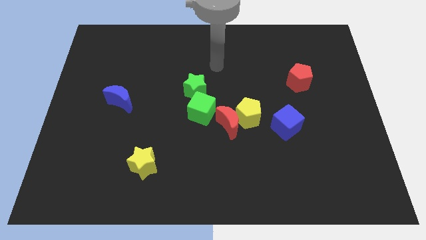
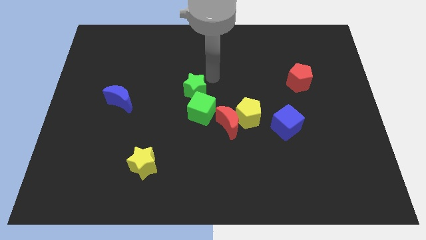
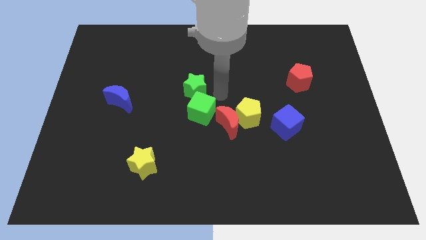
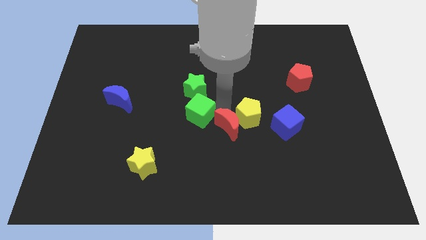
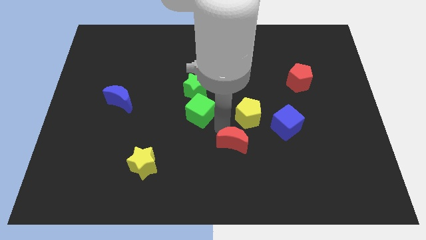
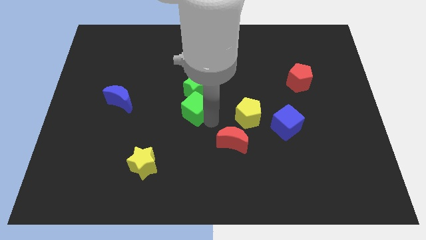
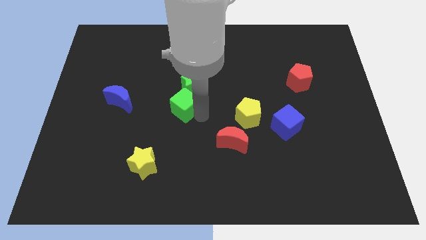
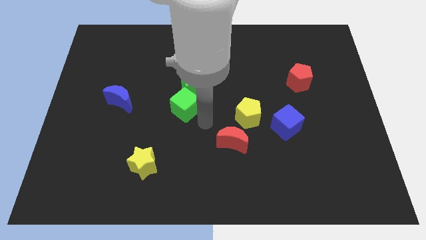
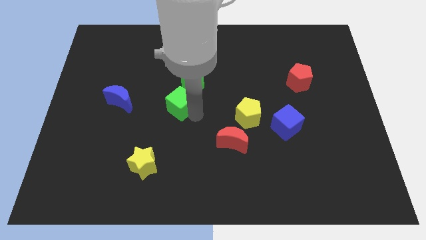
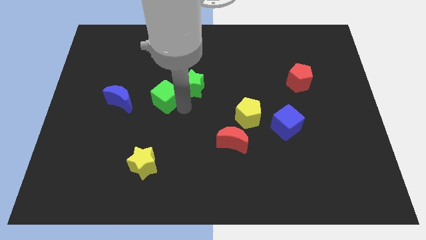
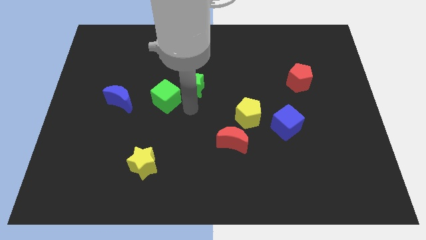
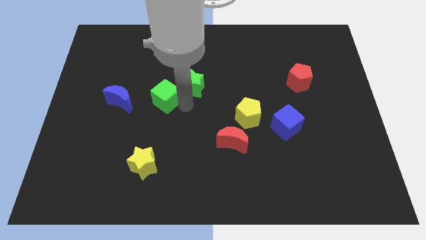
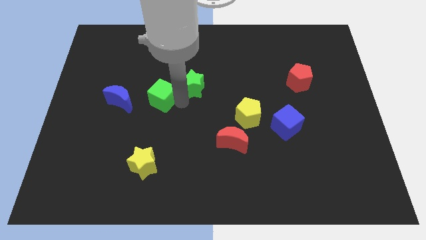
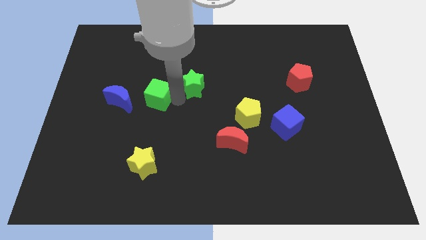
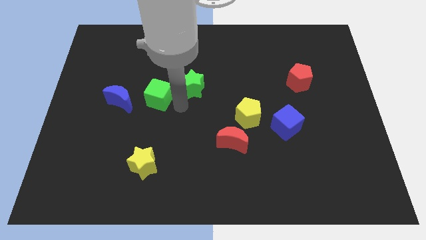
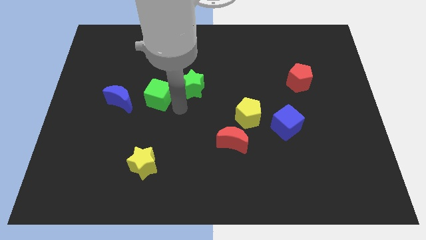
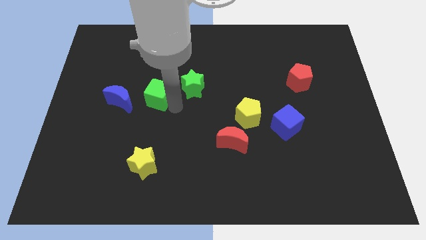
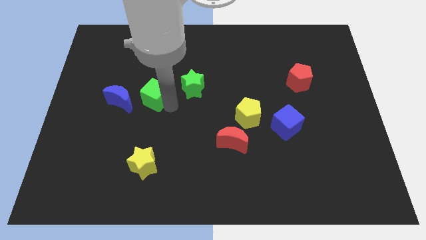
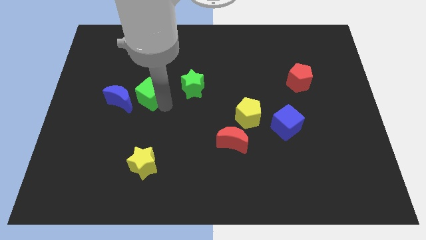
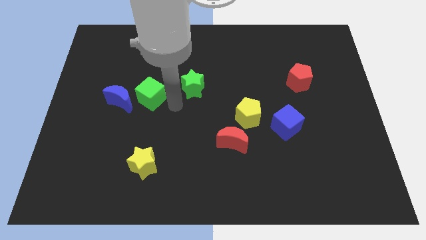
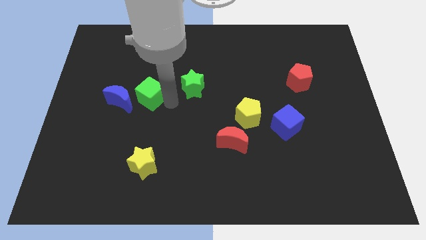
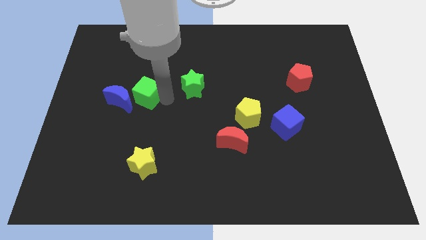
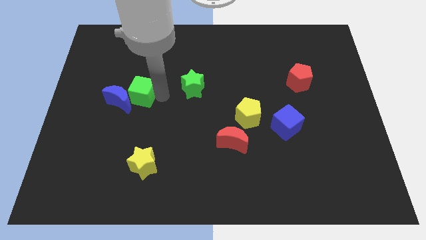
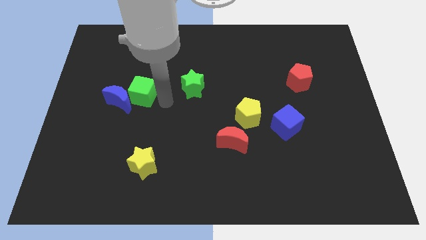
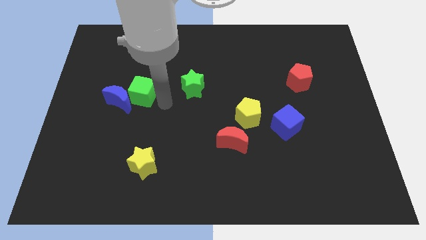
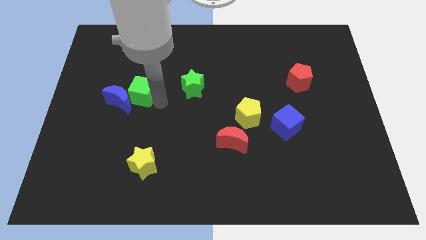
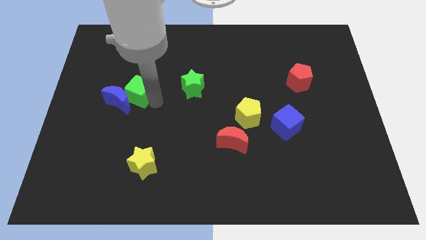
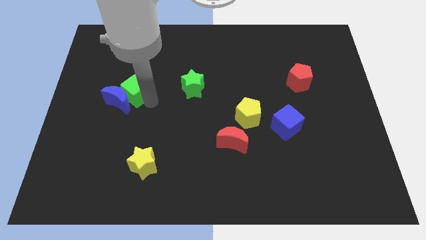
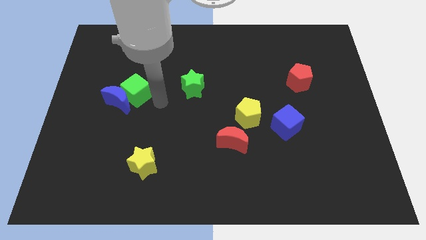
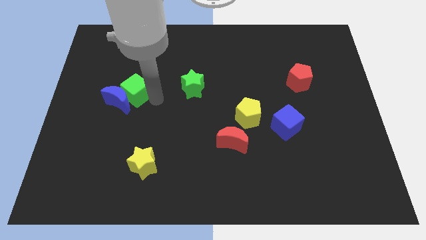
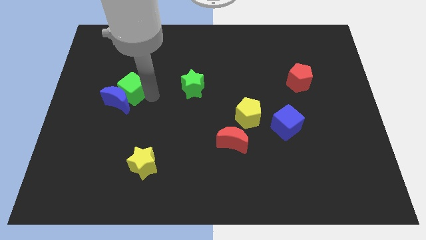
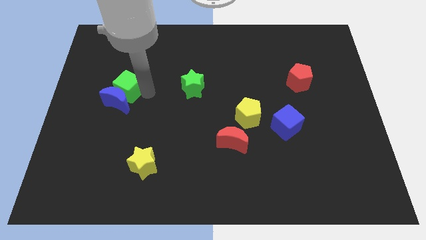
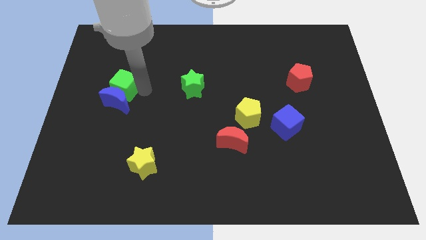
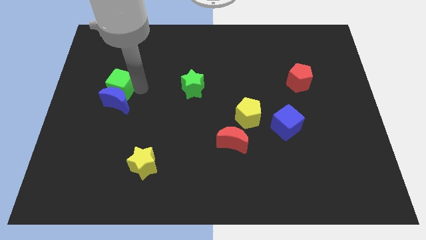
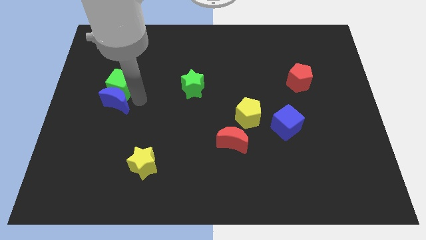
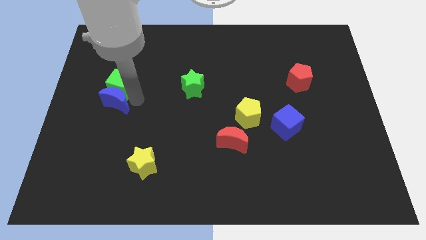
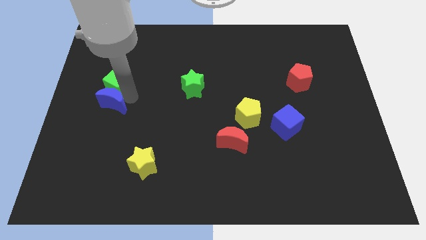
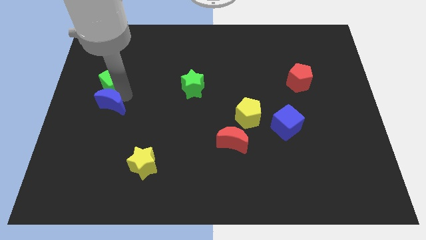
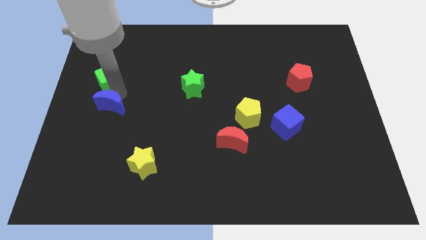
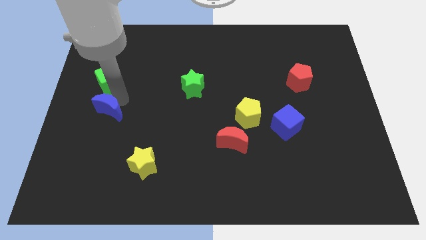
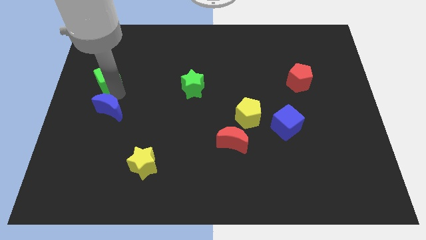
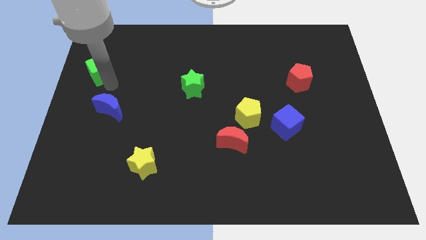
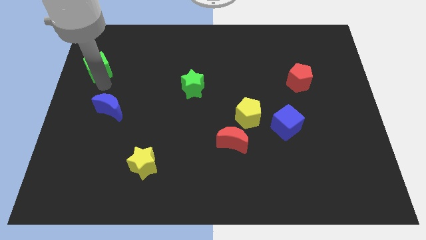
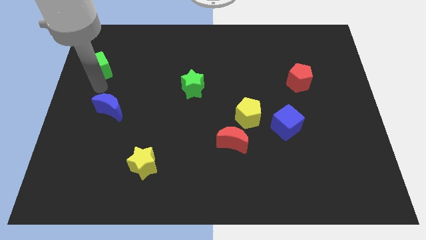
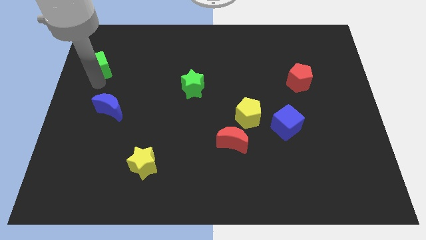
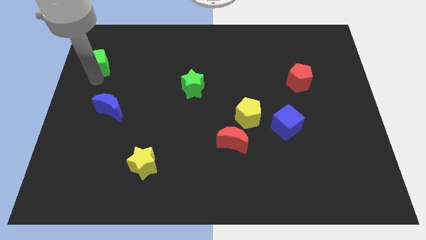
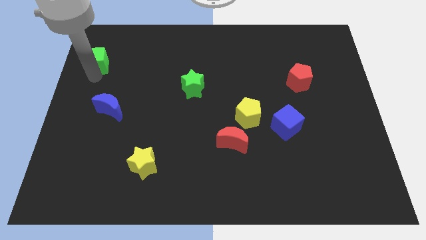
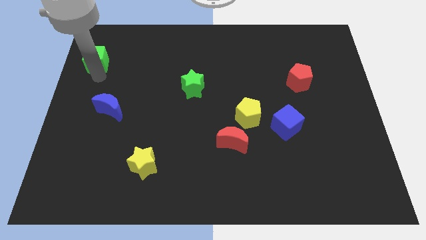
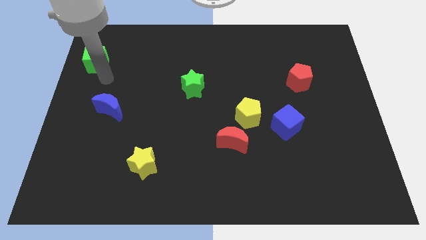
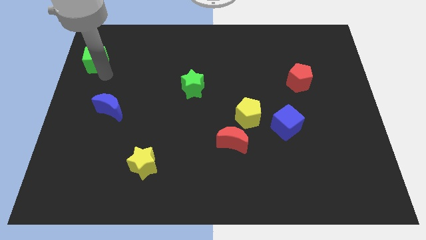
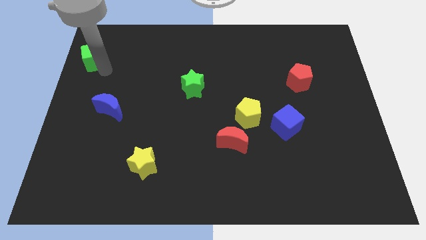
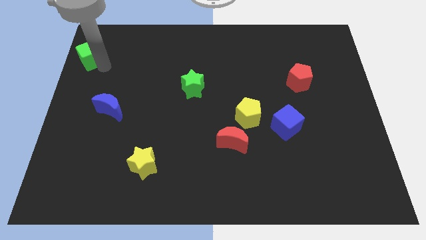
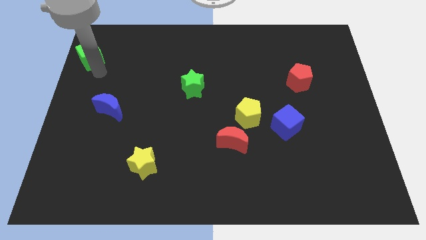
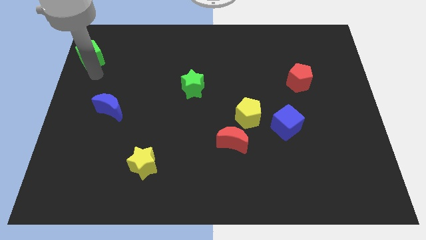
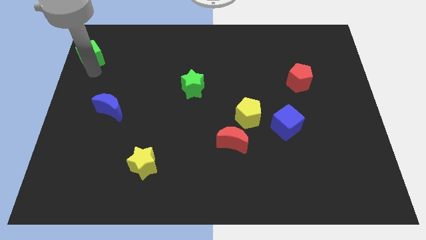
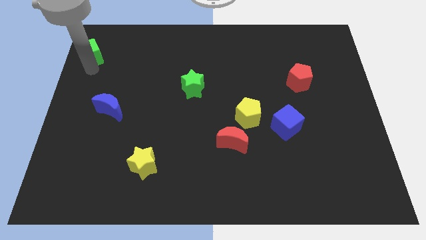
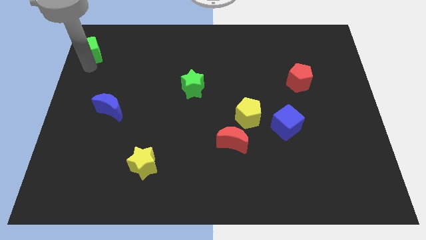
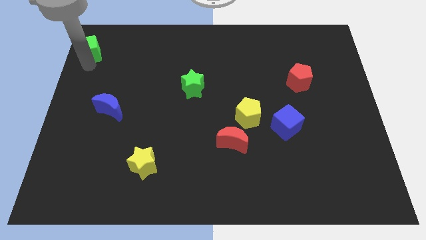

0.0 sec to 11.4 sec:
move the green cube to the top left

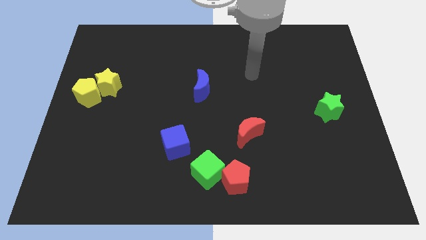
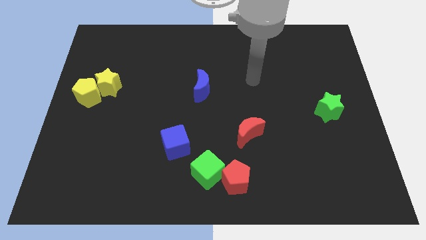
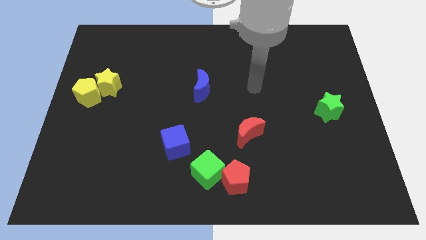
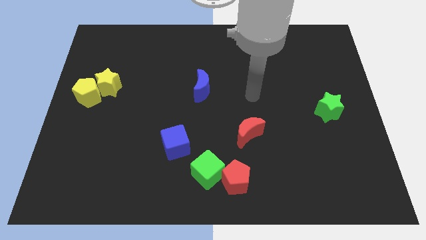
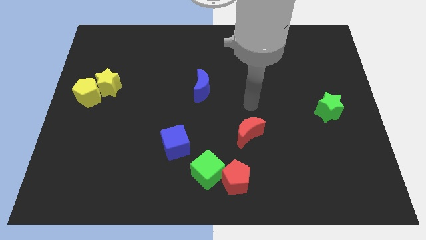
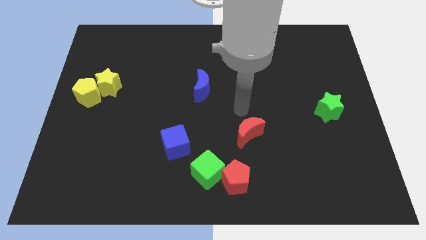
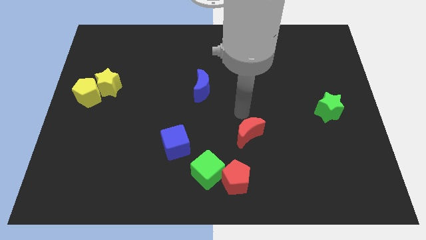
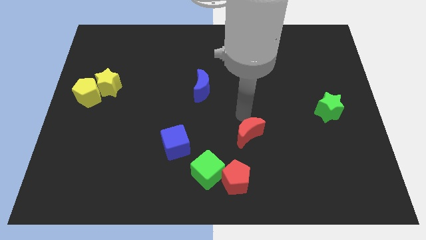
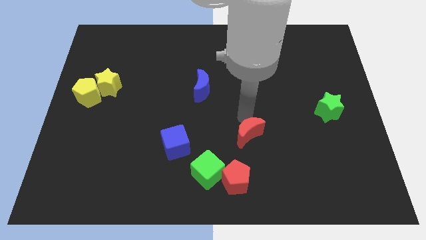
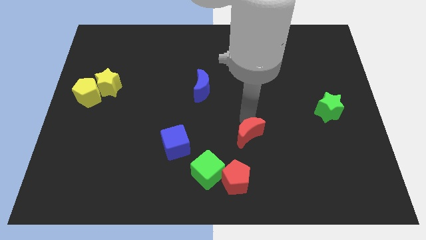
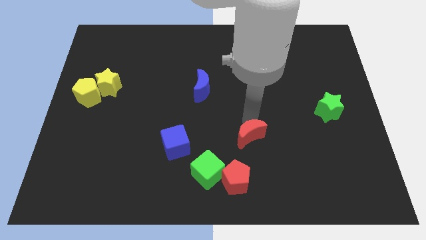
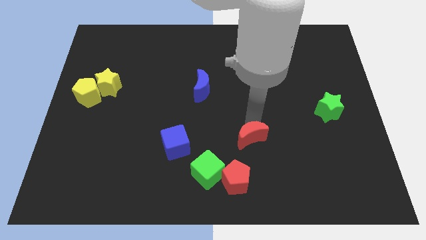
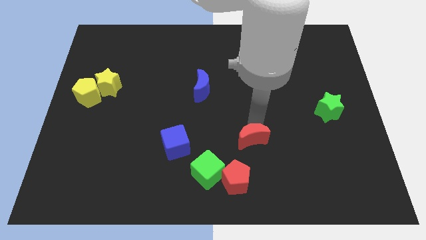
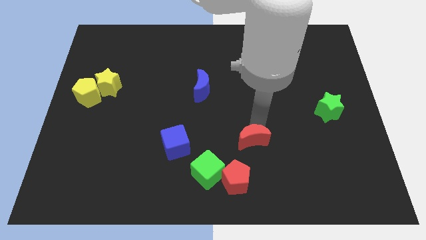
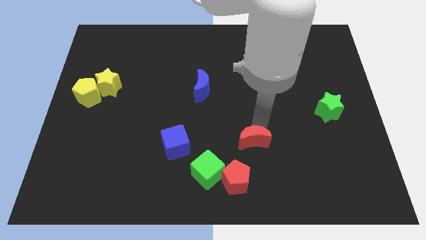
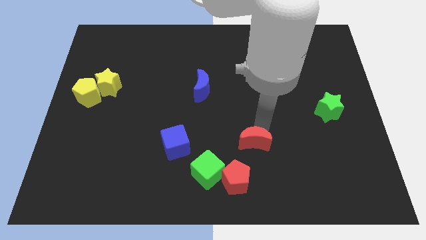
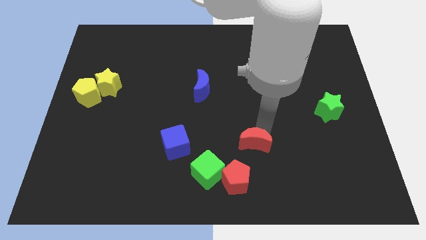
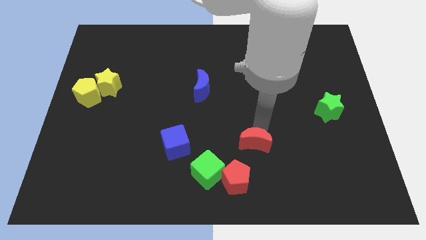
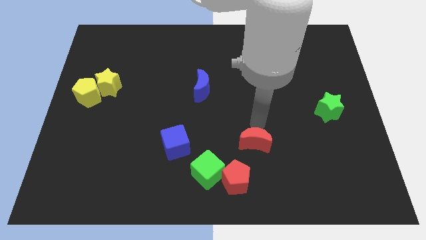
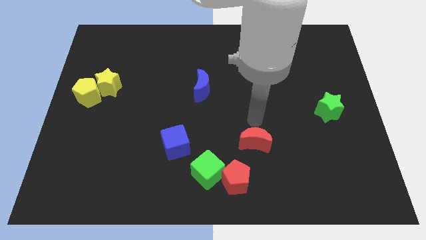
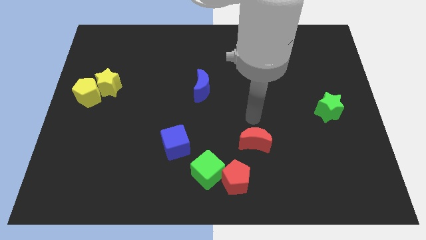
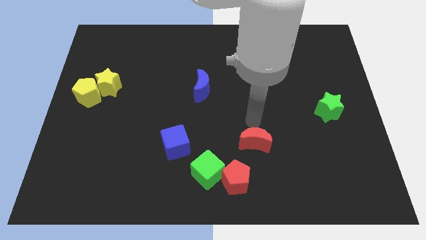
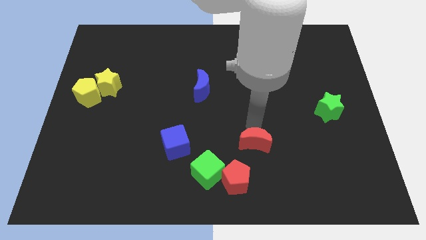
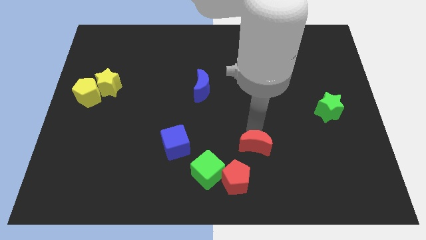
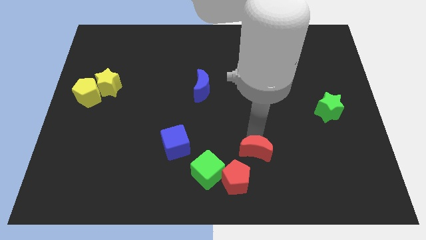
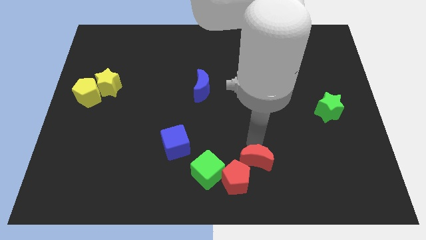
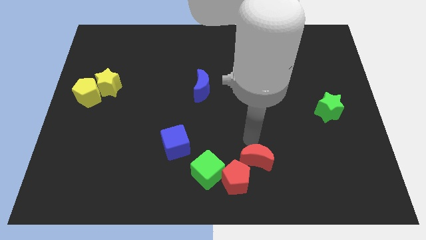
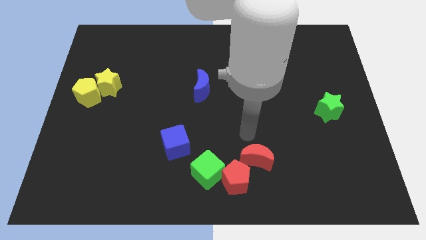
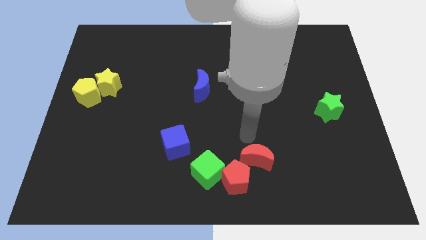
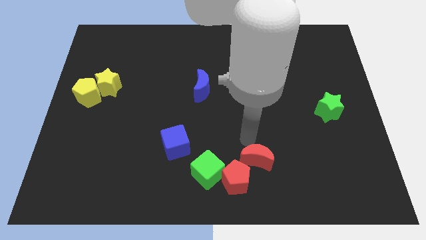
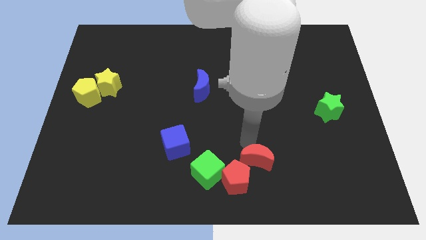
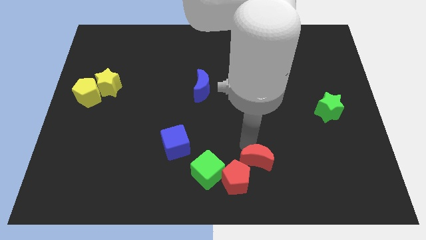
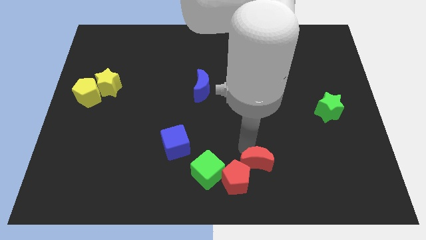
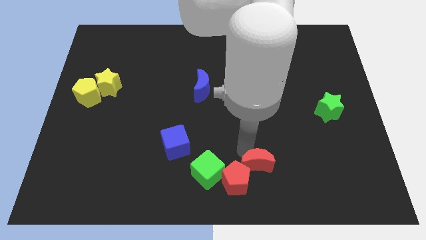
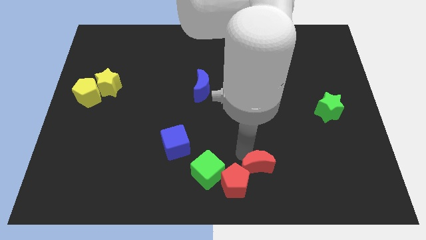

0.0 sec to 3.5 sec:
move the red moon to the bottom side
